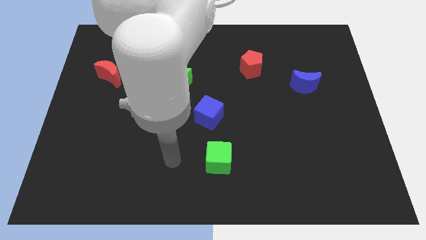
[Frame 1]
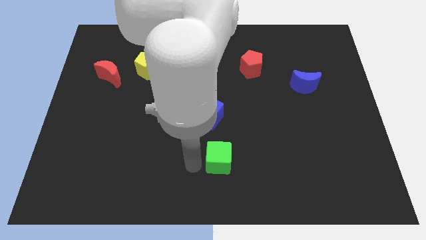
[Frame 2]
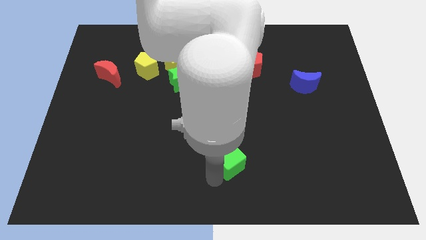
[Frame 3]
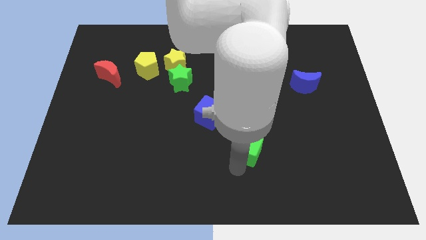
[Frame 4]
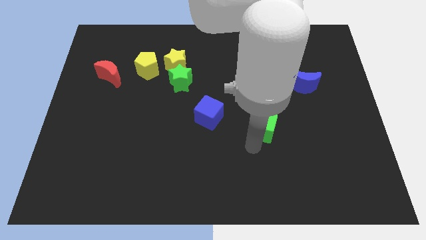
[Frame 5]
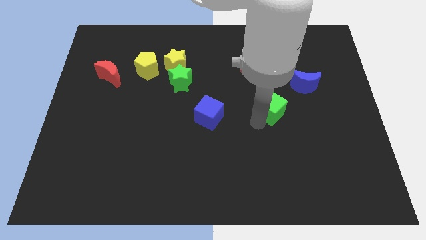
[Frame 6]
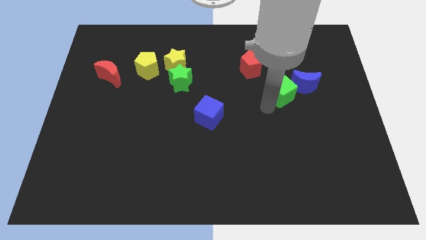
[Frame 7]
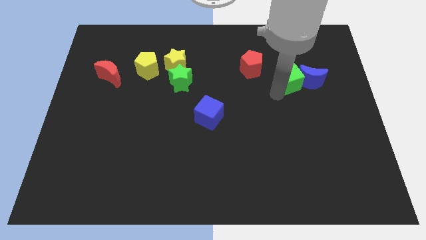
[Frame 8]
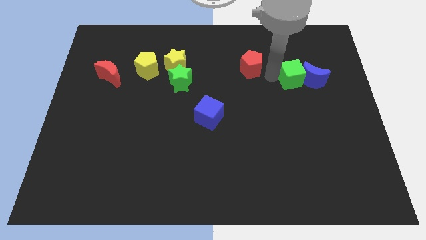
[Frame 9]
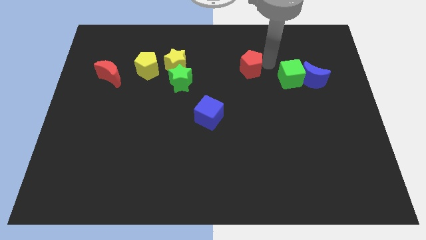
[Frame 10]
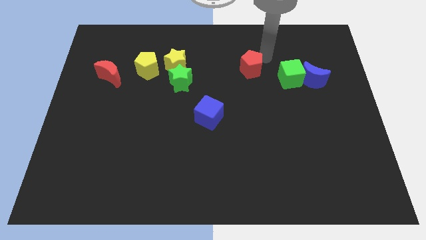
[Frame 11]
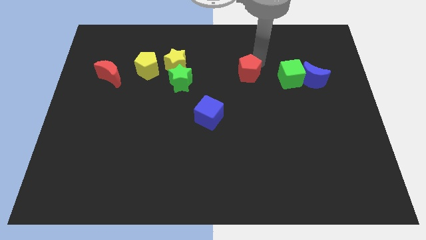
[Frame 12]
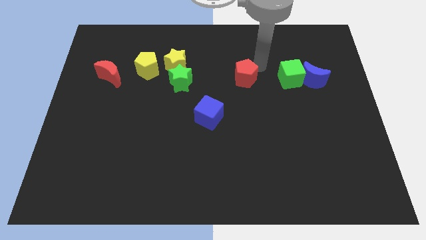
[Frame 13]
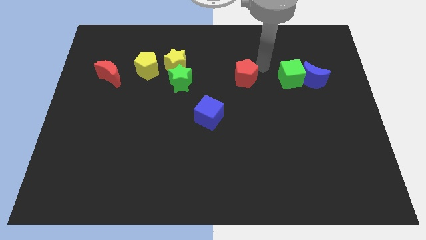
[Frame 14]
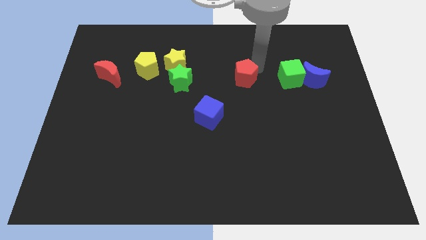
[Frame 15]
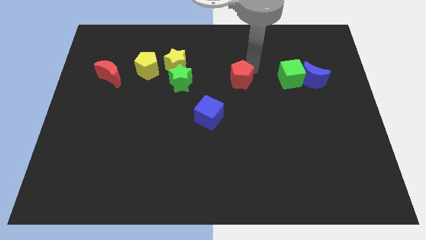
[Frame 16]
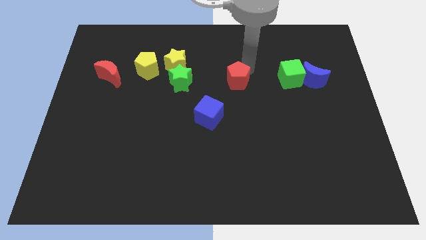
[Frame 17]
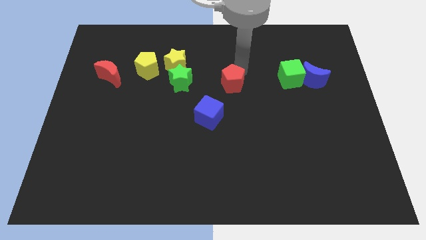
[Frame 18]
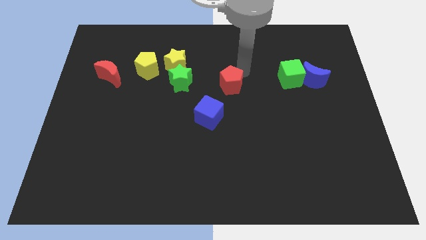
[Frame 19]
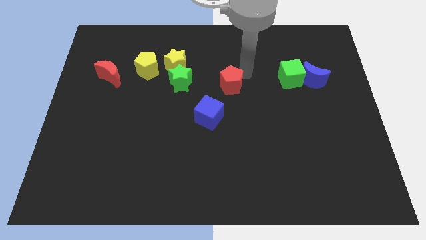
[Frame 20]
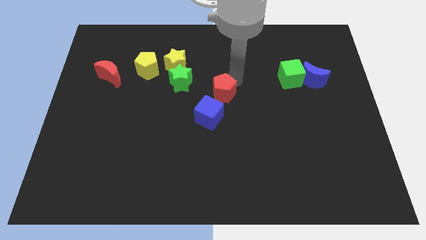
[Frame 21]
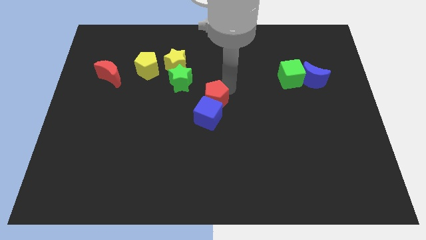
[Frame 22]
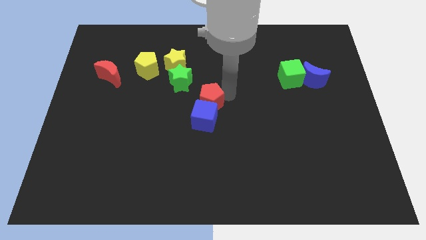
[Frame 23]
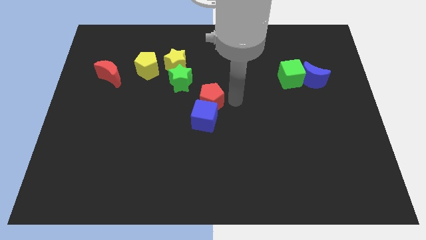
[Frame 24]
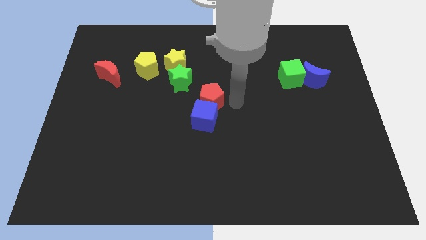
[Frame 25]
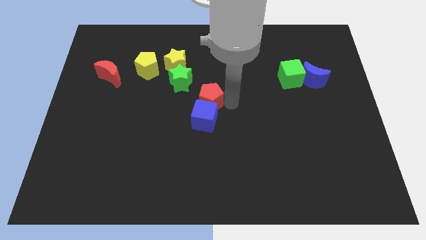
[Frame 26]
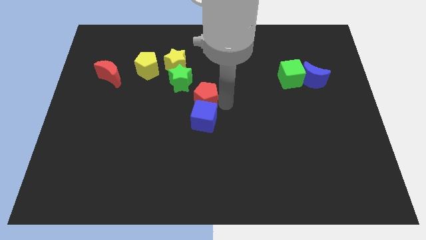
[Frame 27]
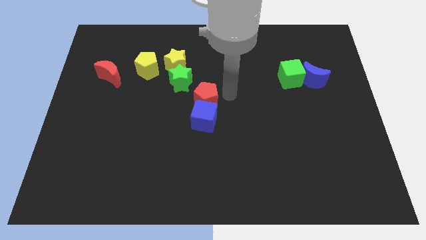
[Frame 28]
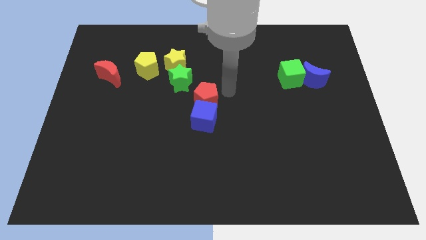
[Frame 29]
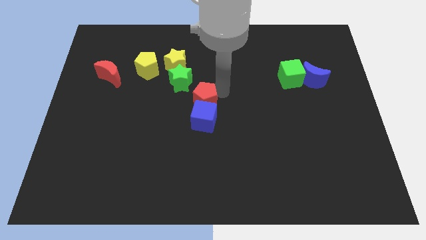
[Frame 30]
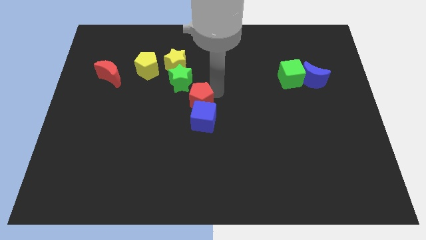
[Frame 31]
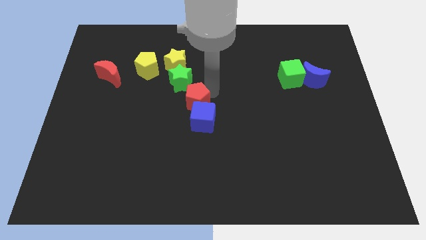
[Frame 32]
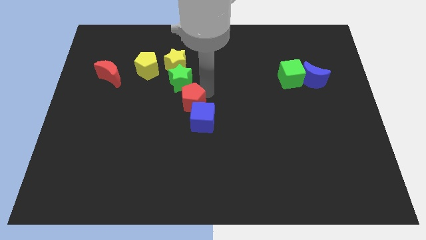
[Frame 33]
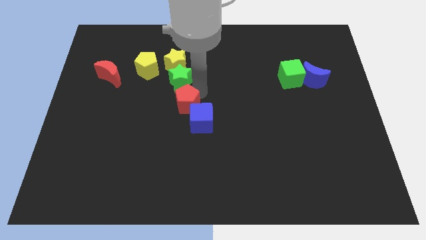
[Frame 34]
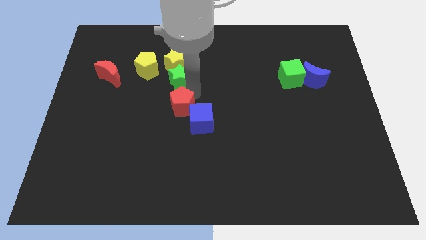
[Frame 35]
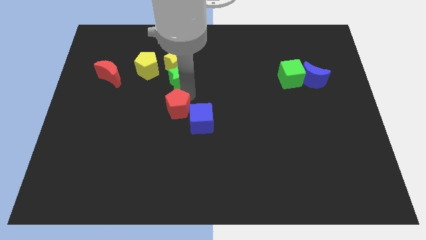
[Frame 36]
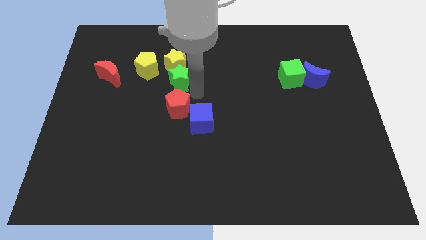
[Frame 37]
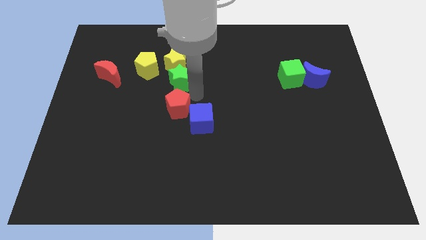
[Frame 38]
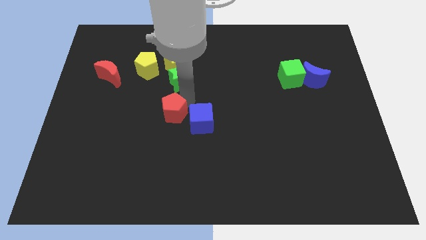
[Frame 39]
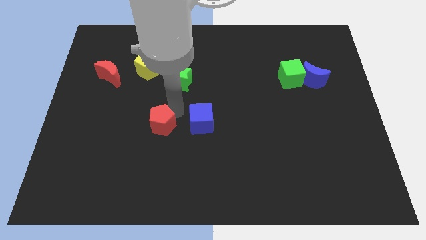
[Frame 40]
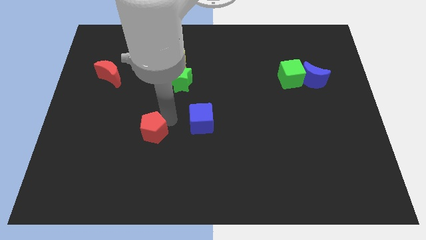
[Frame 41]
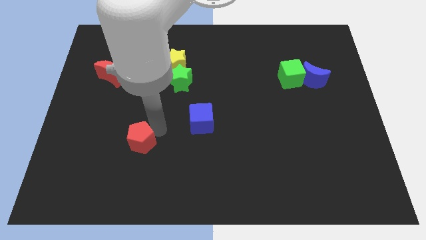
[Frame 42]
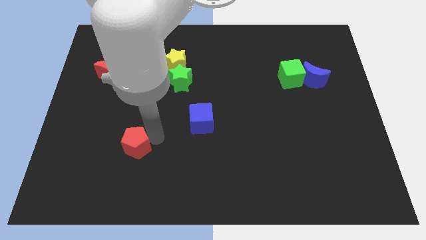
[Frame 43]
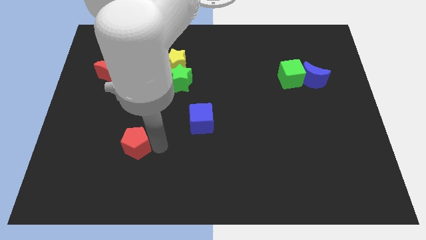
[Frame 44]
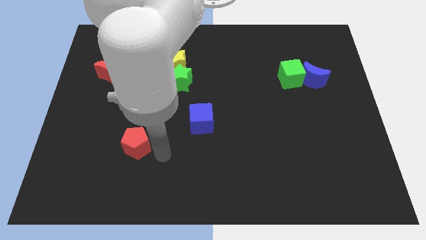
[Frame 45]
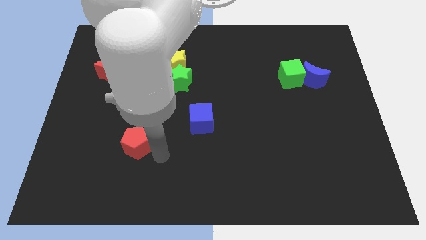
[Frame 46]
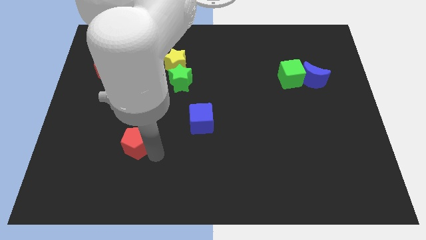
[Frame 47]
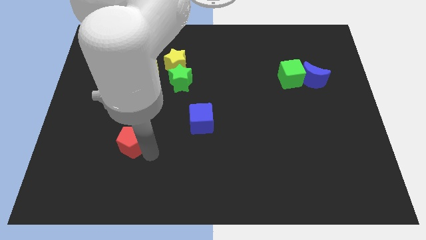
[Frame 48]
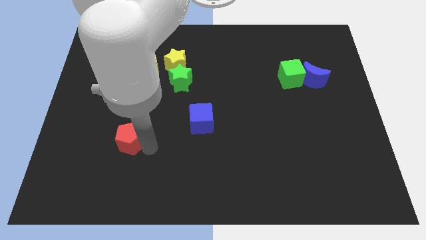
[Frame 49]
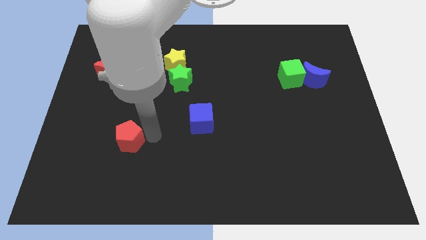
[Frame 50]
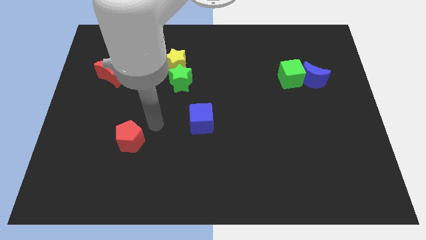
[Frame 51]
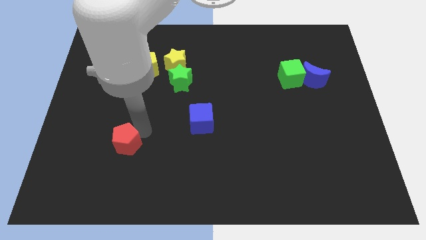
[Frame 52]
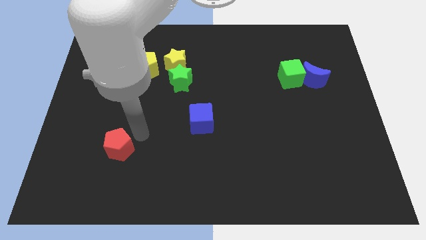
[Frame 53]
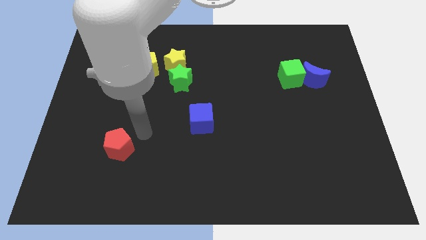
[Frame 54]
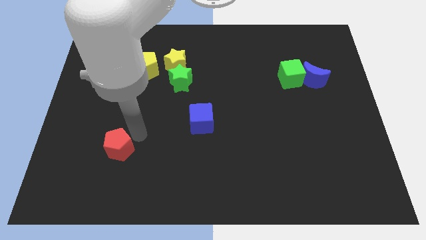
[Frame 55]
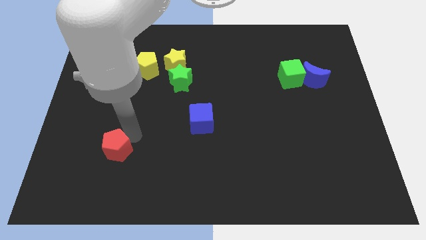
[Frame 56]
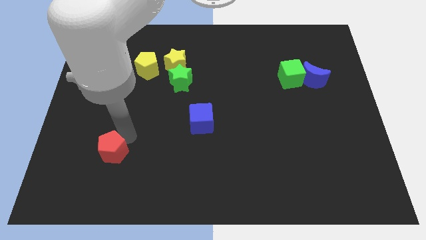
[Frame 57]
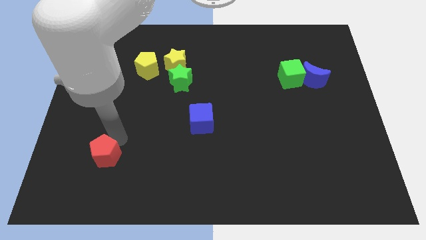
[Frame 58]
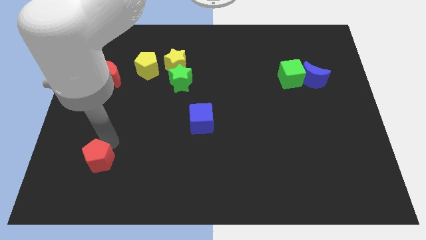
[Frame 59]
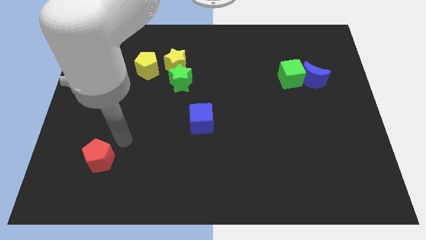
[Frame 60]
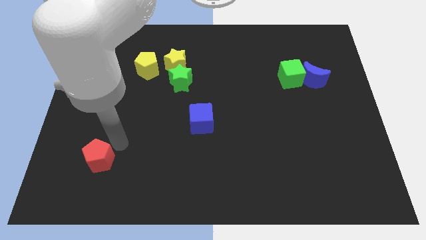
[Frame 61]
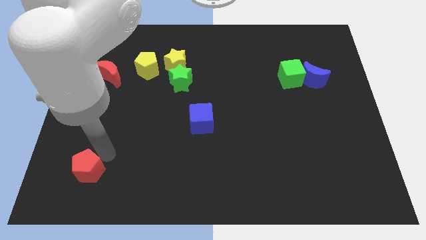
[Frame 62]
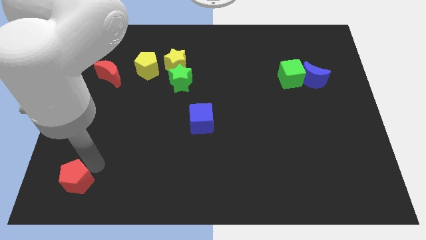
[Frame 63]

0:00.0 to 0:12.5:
push the red pentagon to the bottom left corner
